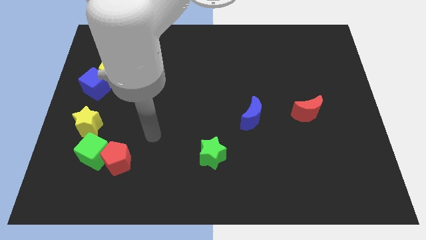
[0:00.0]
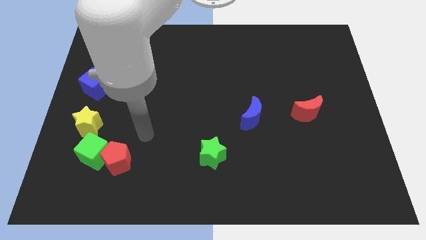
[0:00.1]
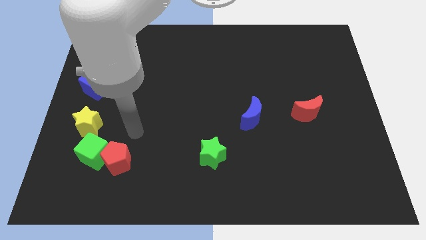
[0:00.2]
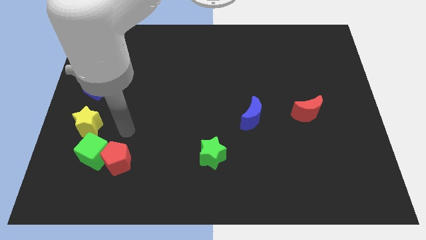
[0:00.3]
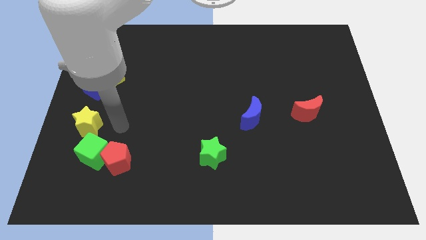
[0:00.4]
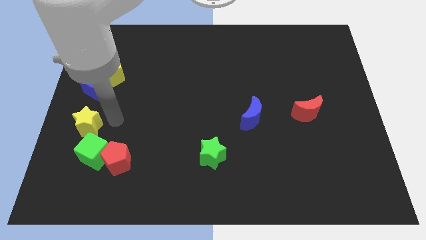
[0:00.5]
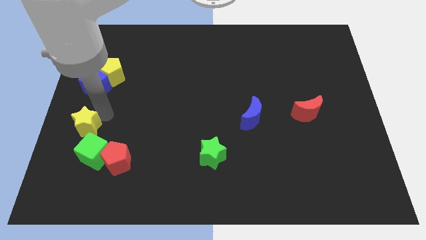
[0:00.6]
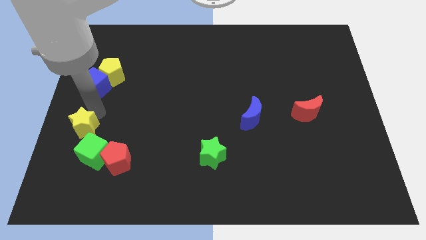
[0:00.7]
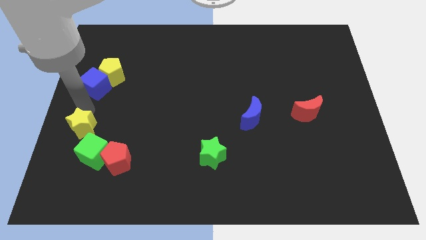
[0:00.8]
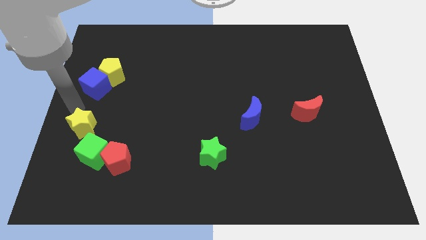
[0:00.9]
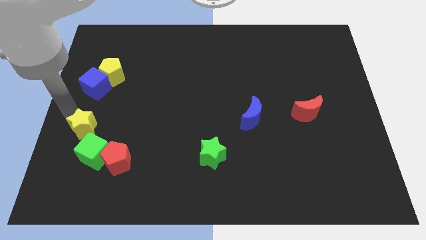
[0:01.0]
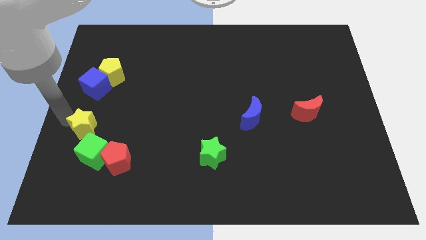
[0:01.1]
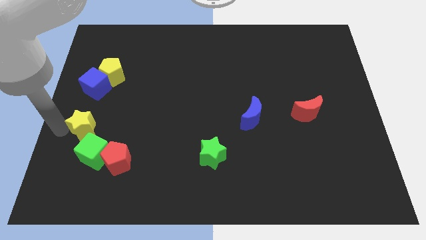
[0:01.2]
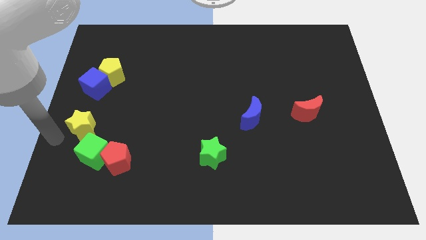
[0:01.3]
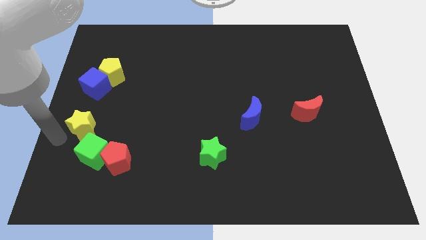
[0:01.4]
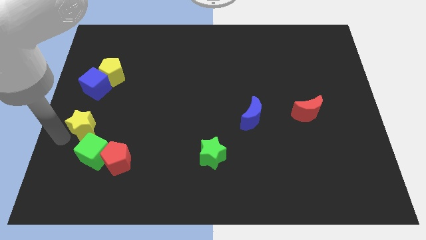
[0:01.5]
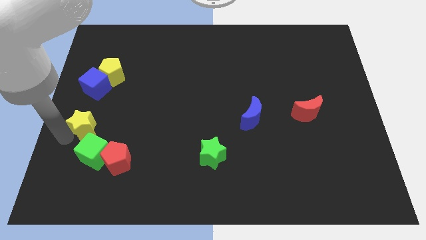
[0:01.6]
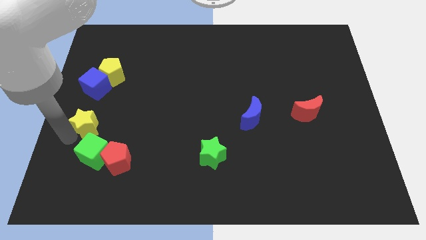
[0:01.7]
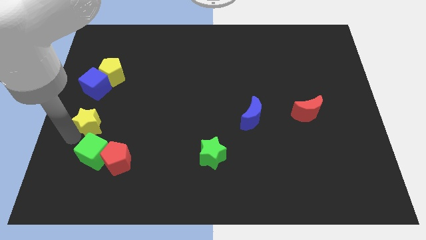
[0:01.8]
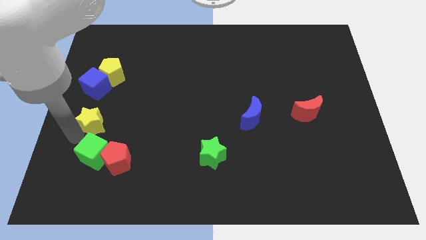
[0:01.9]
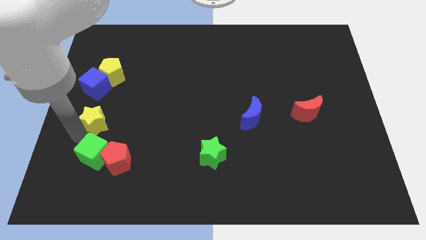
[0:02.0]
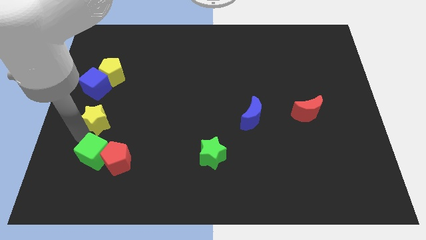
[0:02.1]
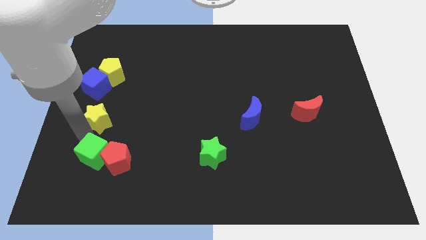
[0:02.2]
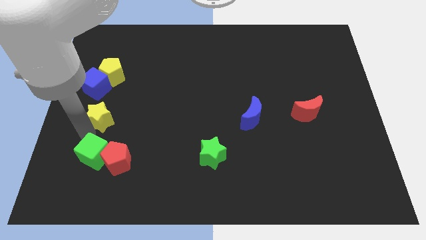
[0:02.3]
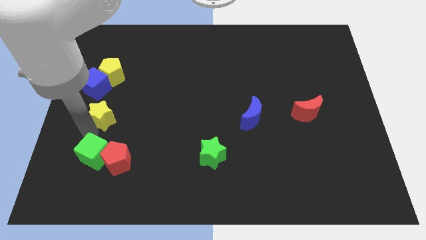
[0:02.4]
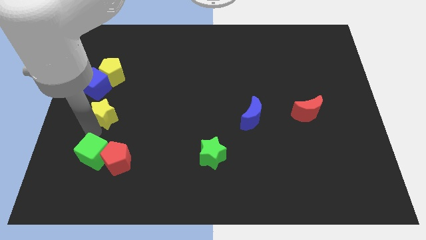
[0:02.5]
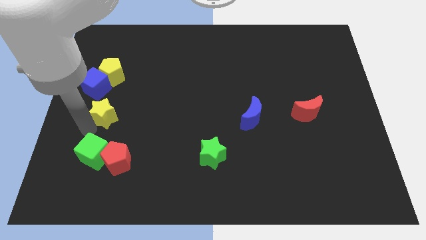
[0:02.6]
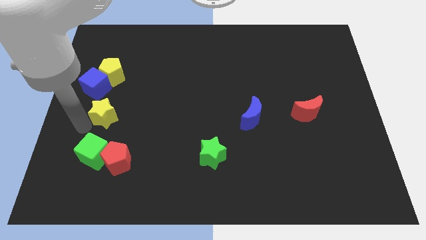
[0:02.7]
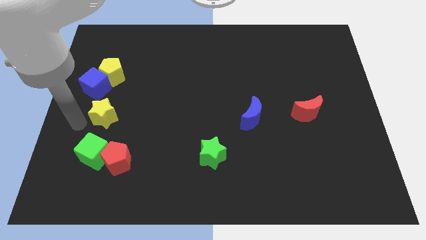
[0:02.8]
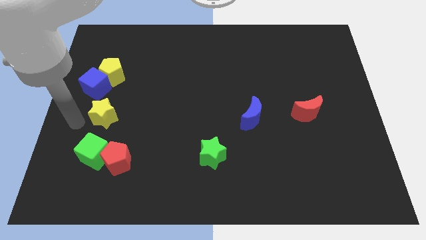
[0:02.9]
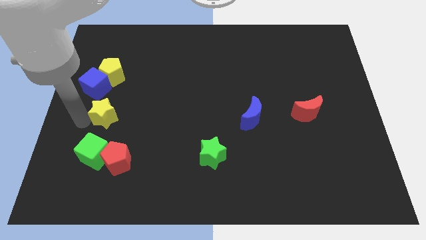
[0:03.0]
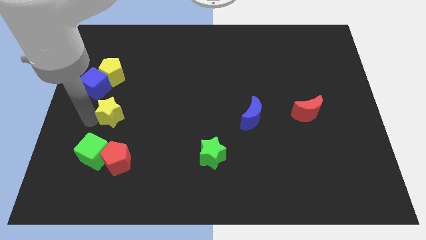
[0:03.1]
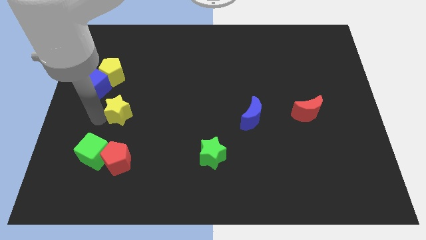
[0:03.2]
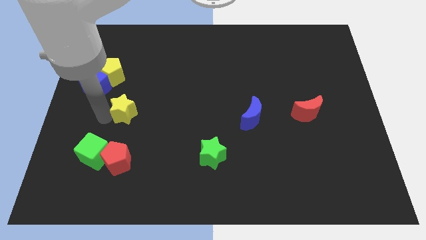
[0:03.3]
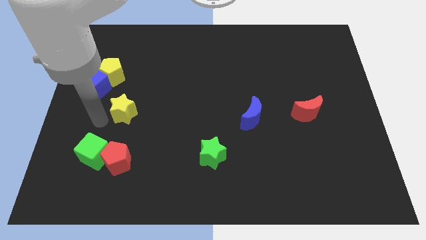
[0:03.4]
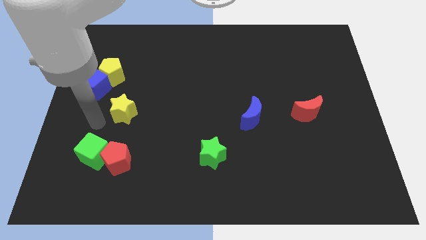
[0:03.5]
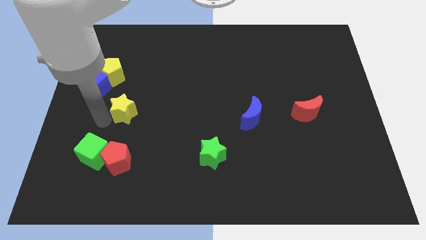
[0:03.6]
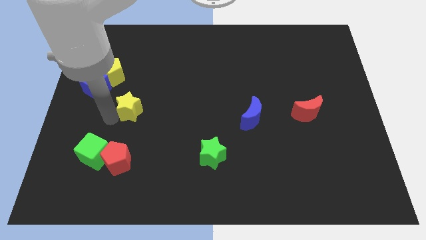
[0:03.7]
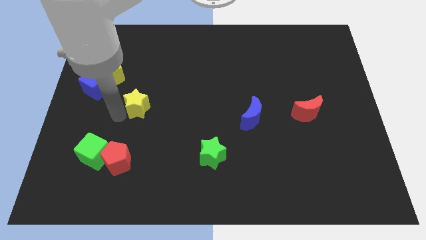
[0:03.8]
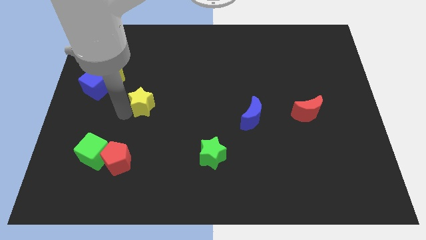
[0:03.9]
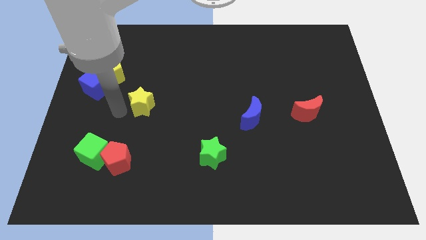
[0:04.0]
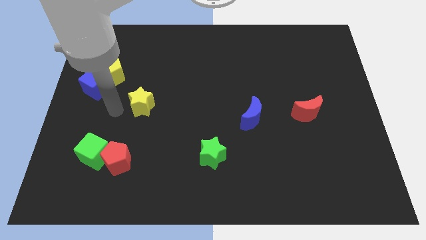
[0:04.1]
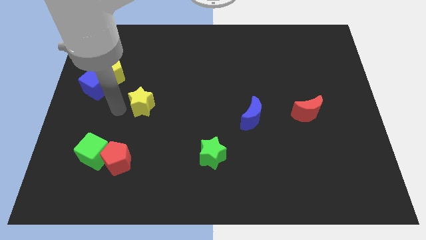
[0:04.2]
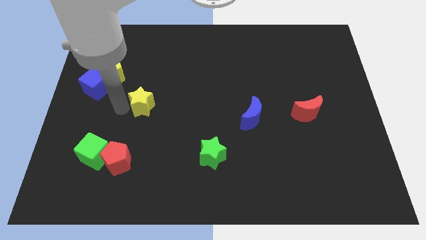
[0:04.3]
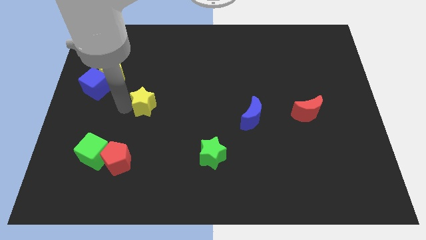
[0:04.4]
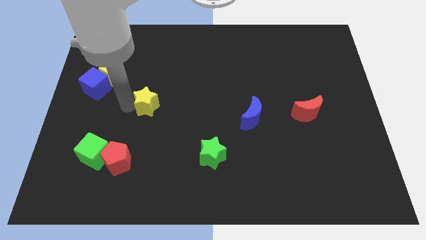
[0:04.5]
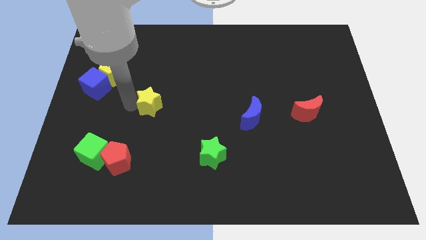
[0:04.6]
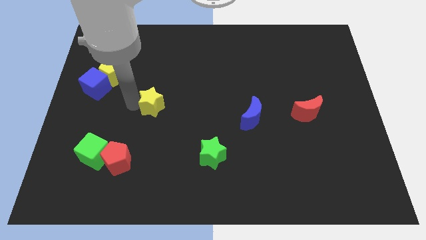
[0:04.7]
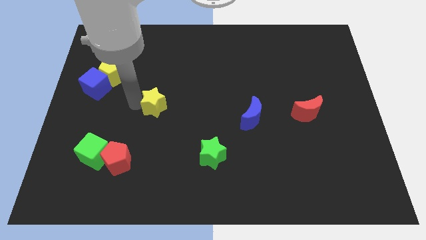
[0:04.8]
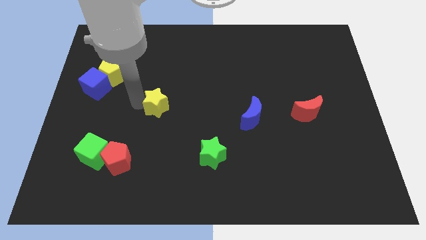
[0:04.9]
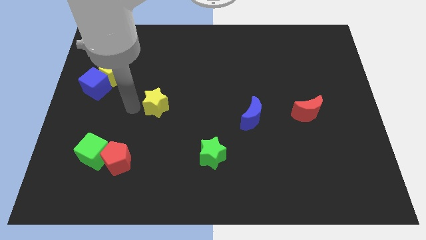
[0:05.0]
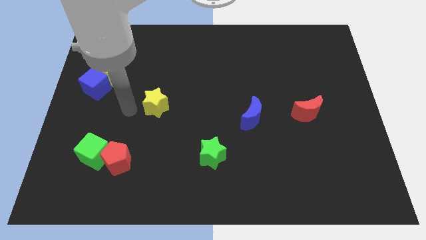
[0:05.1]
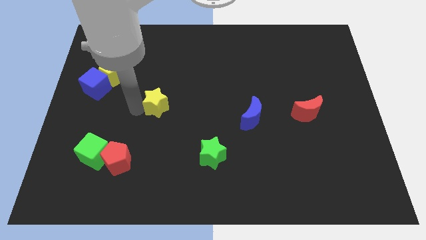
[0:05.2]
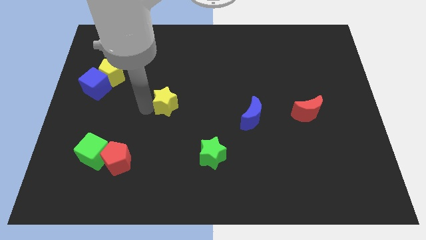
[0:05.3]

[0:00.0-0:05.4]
put the yellow star to the center

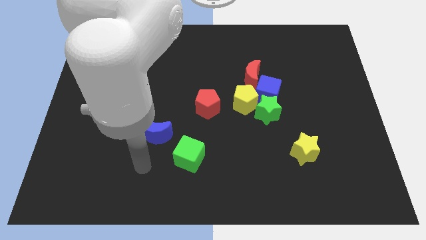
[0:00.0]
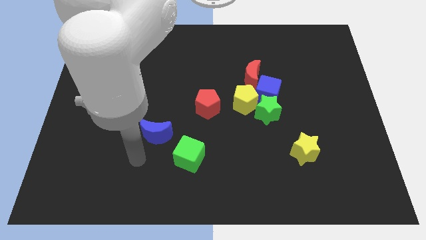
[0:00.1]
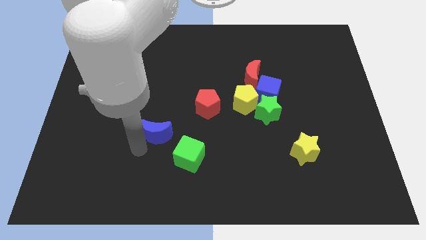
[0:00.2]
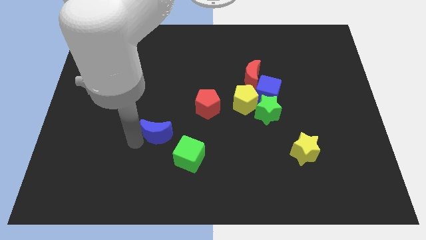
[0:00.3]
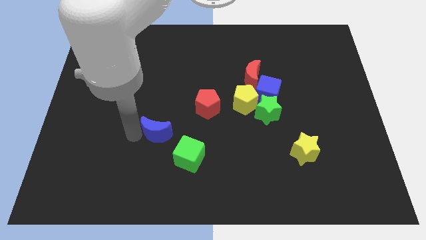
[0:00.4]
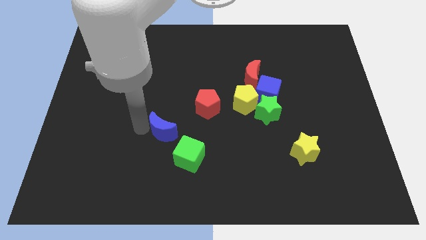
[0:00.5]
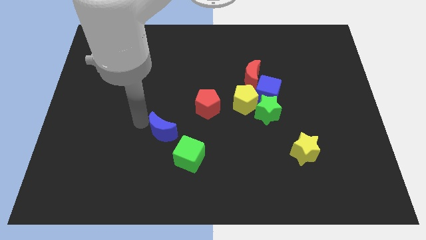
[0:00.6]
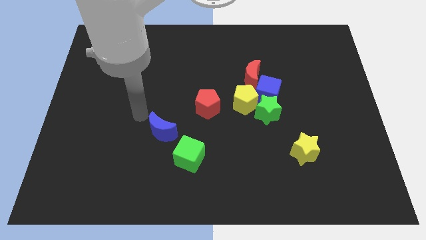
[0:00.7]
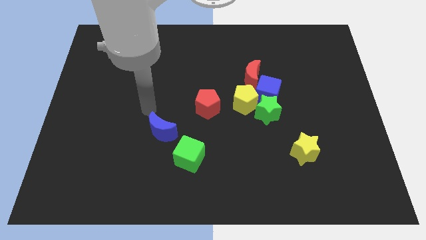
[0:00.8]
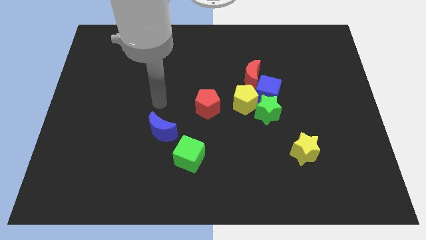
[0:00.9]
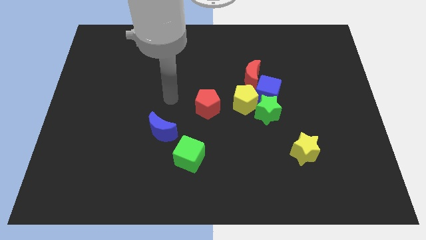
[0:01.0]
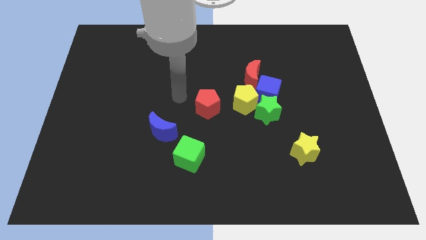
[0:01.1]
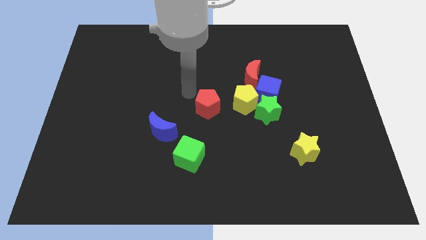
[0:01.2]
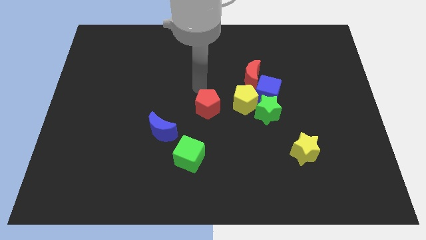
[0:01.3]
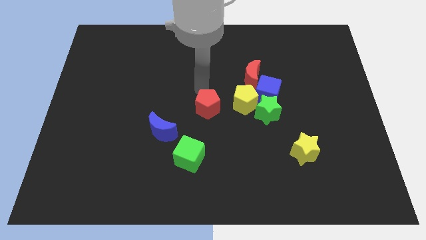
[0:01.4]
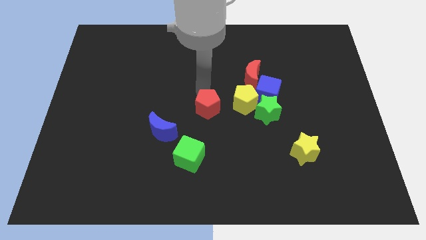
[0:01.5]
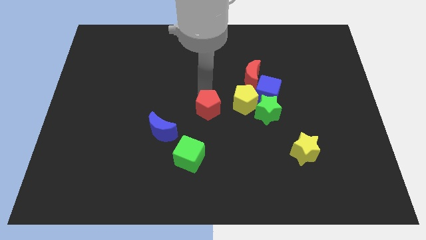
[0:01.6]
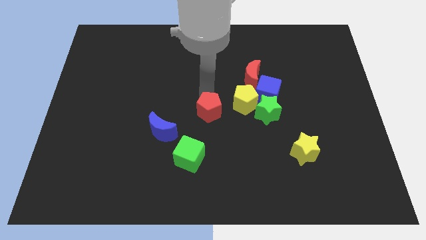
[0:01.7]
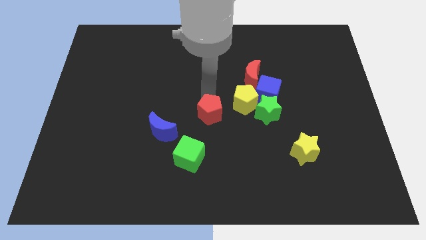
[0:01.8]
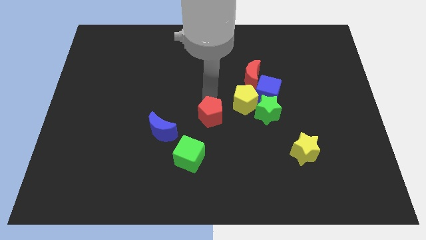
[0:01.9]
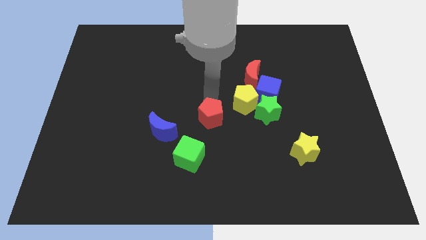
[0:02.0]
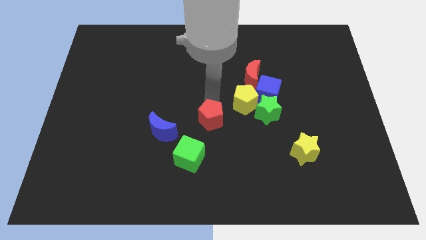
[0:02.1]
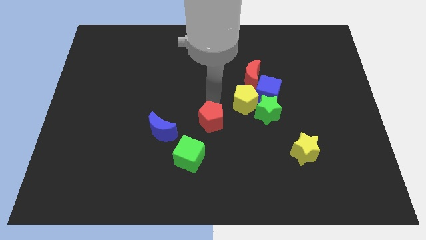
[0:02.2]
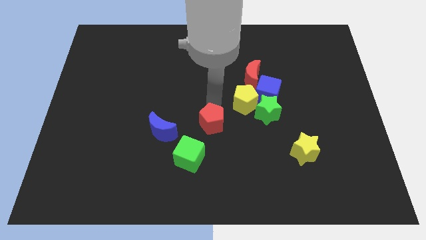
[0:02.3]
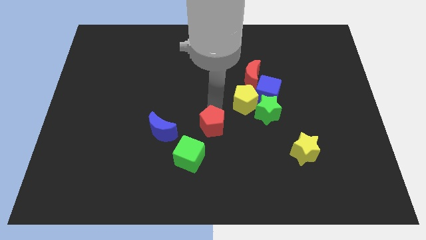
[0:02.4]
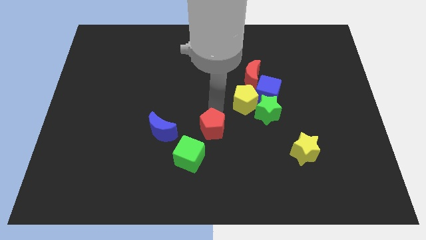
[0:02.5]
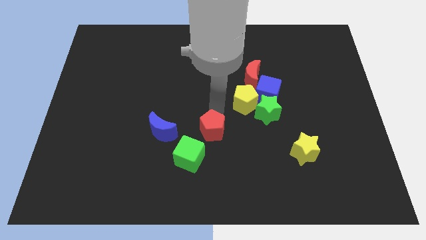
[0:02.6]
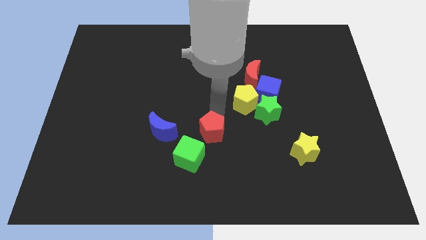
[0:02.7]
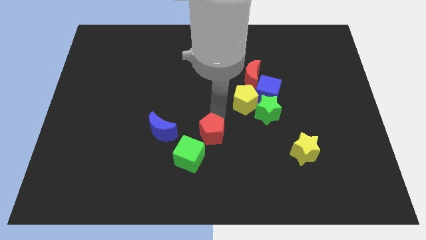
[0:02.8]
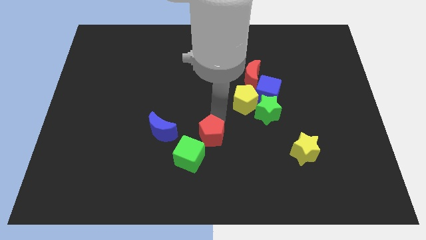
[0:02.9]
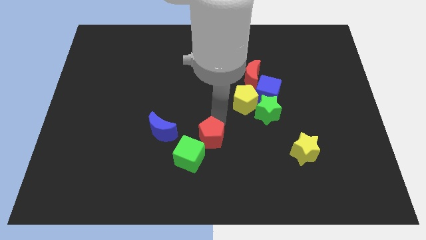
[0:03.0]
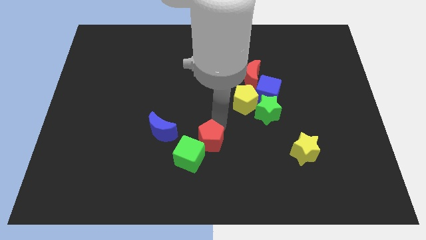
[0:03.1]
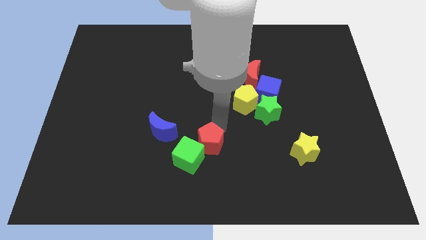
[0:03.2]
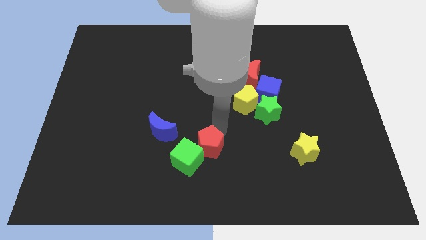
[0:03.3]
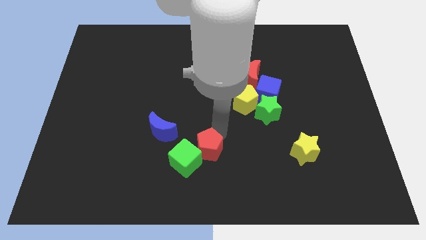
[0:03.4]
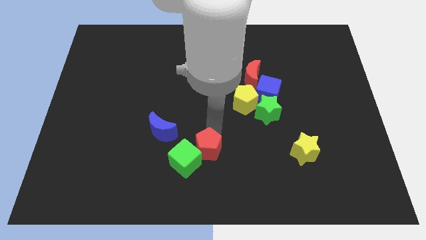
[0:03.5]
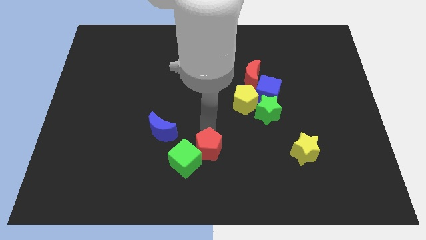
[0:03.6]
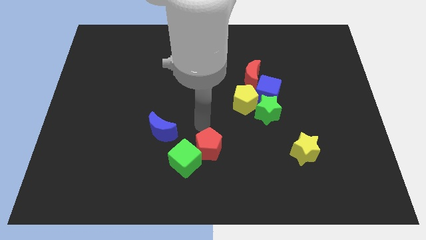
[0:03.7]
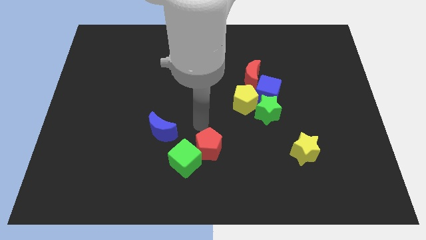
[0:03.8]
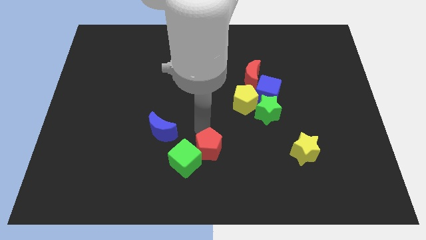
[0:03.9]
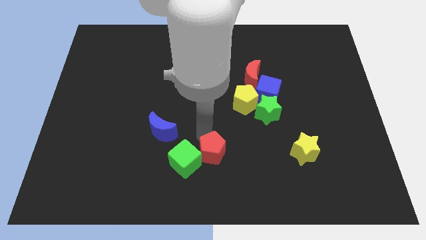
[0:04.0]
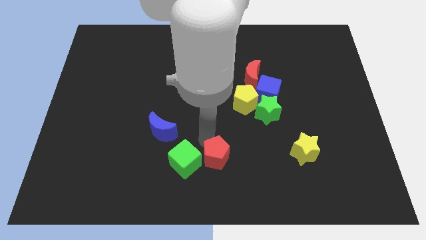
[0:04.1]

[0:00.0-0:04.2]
put the red pentagon to the bottom side
